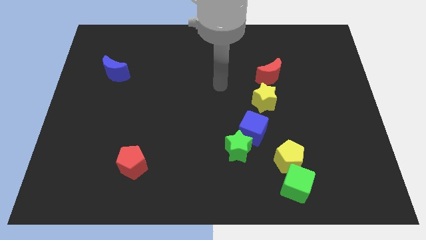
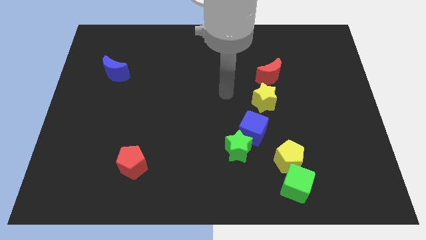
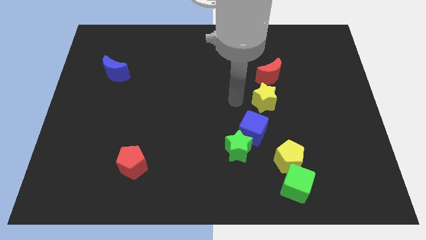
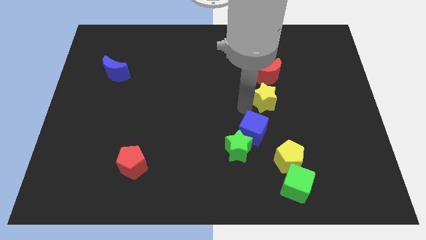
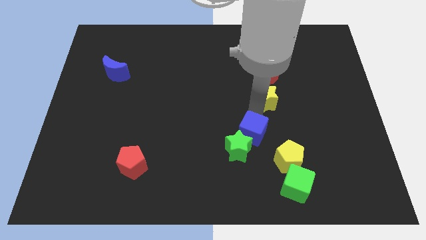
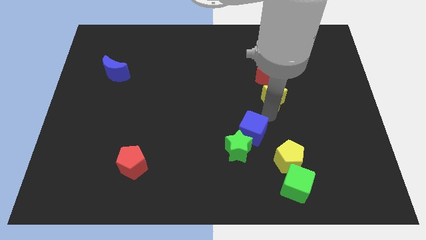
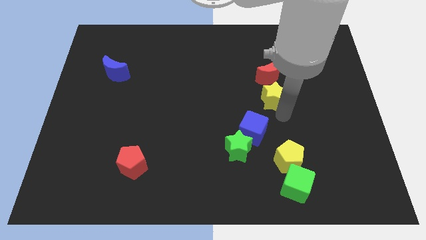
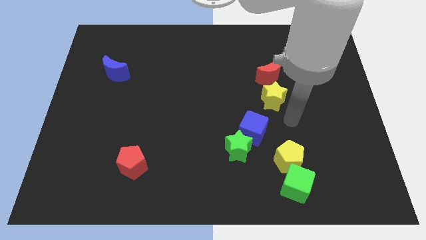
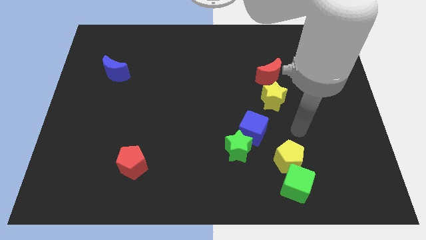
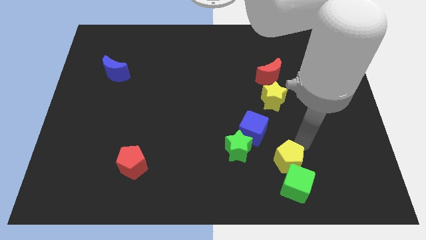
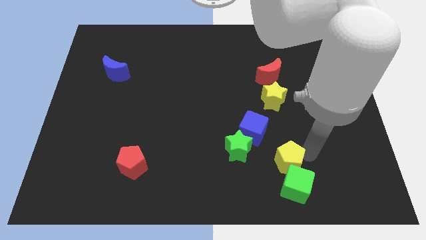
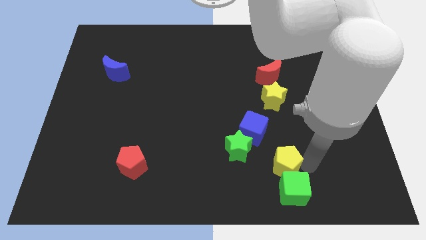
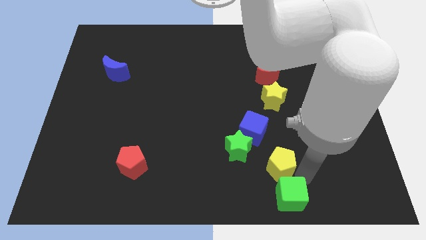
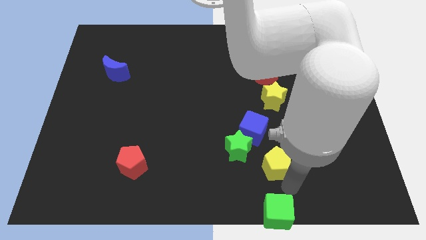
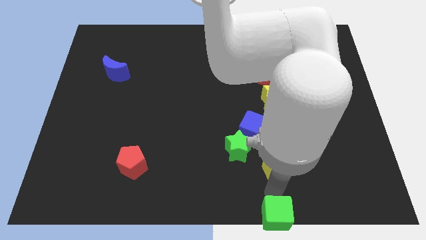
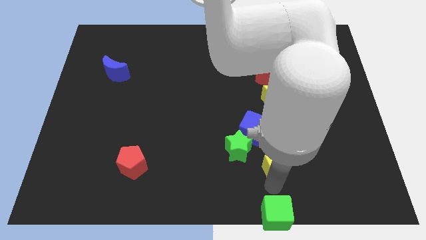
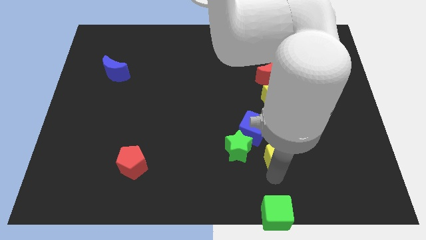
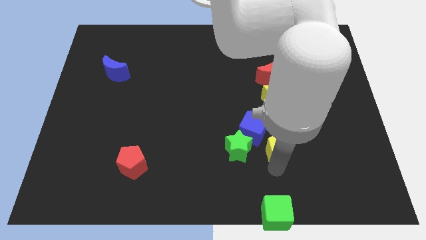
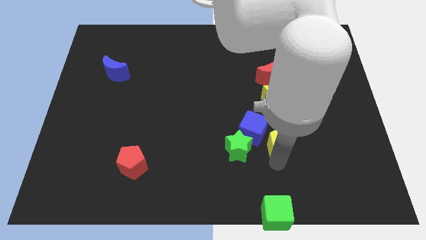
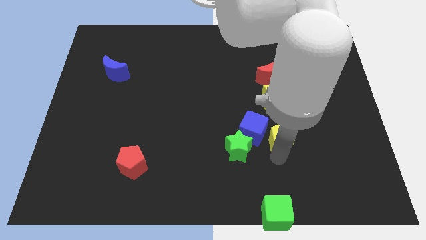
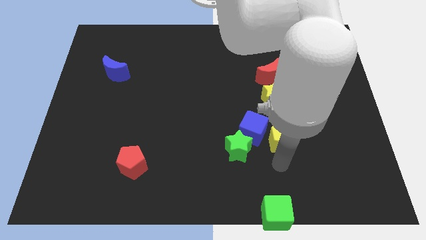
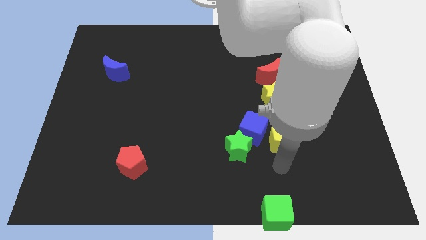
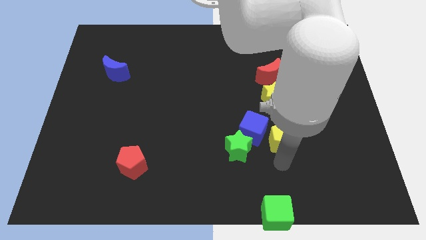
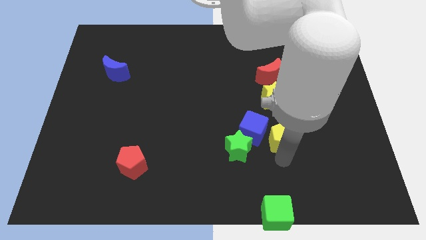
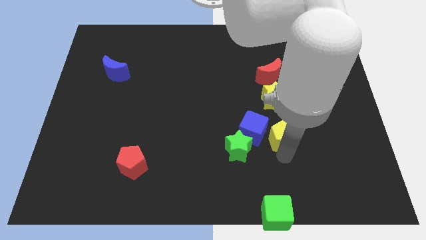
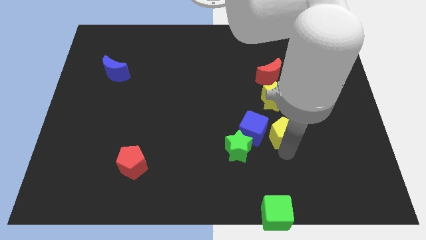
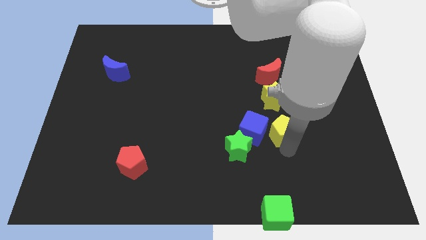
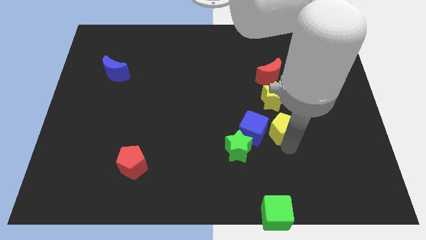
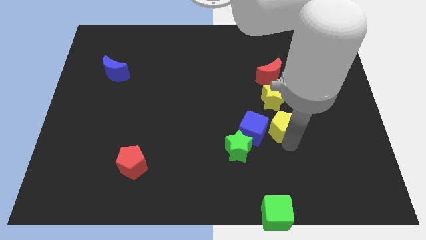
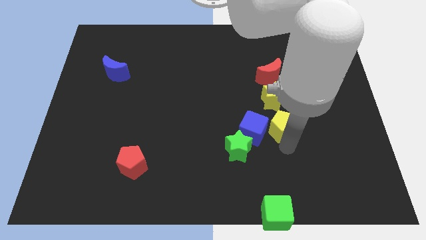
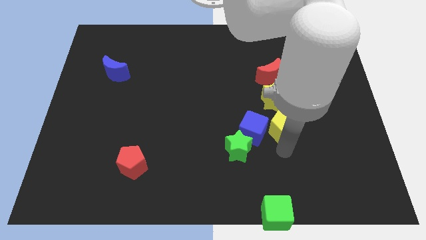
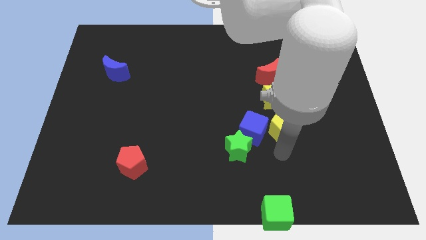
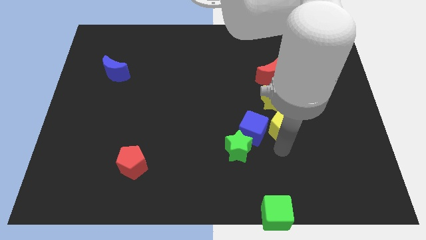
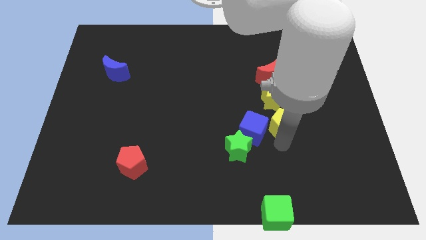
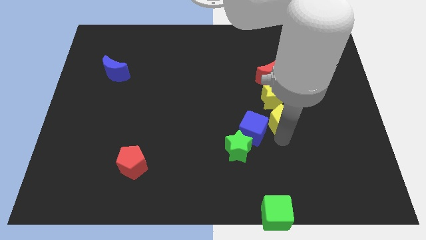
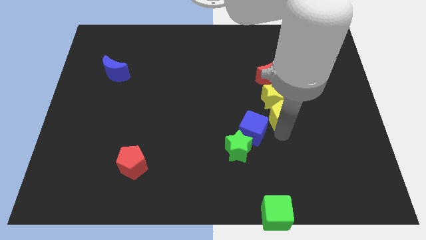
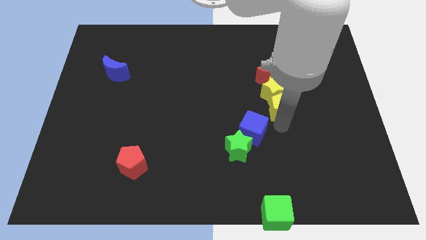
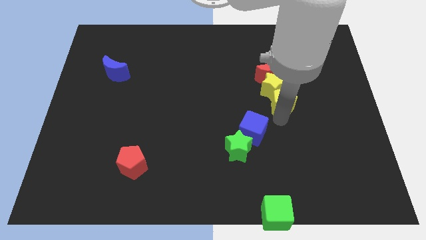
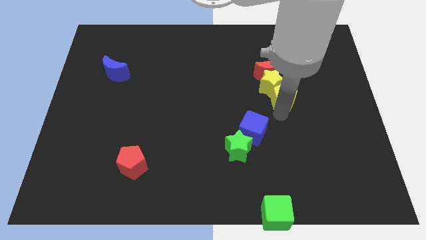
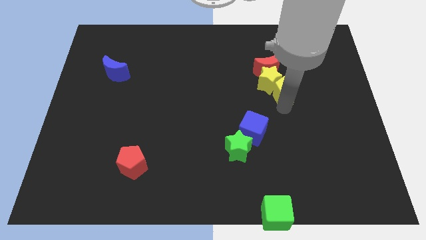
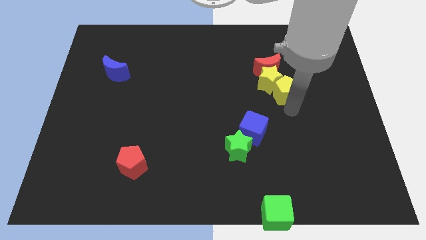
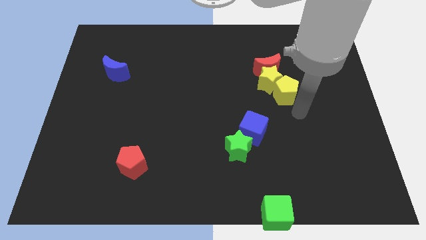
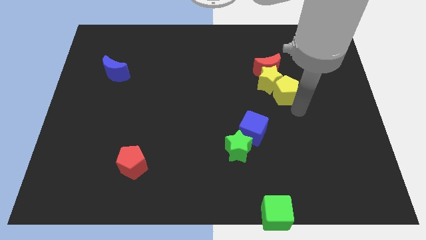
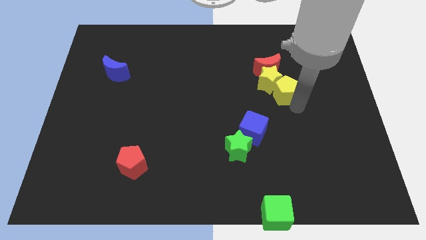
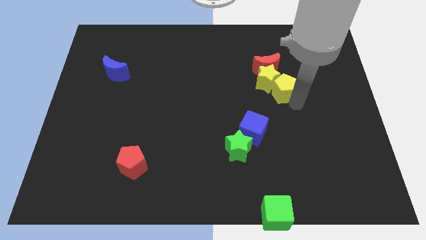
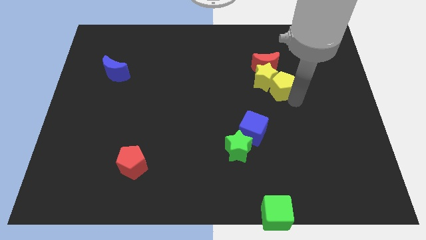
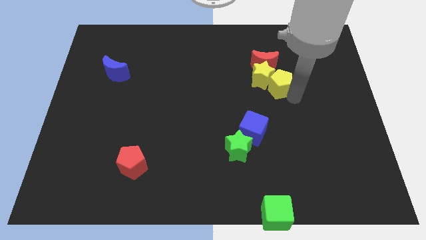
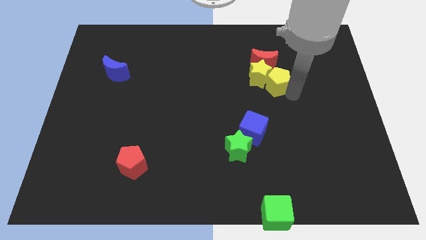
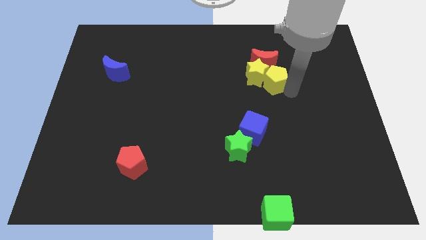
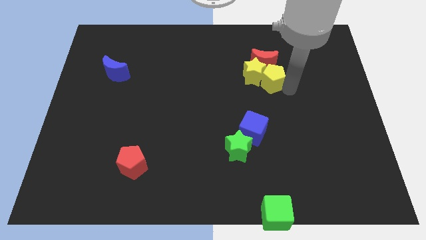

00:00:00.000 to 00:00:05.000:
push the yellow pentagon next to the red moon

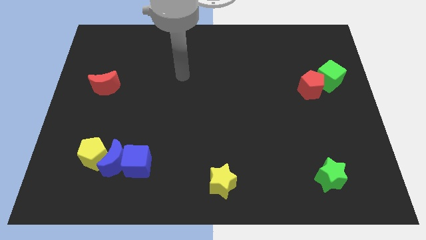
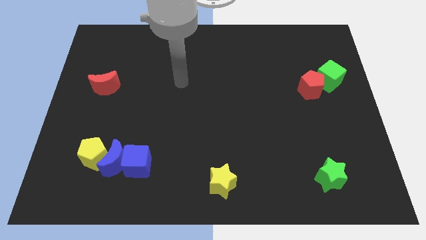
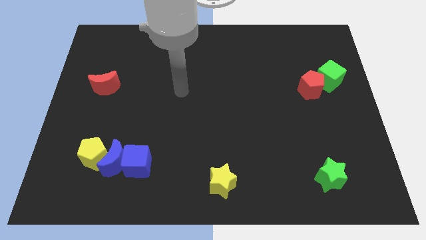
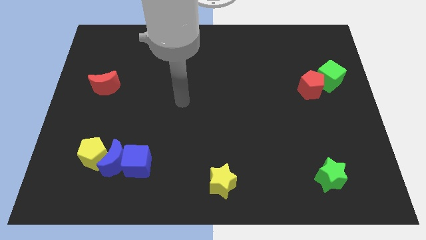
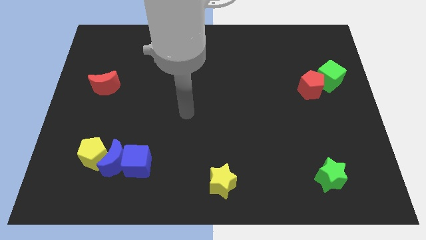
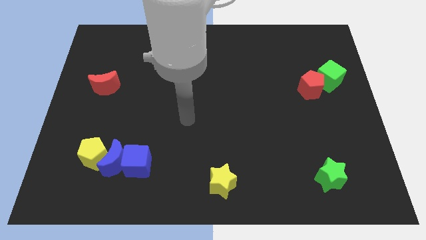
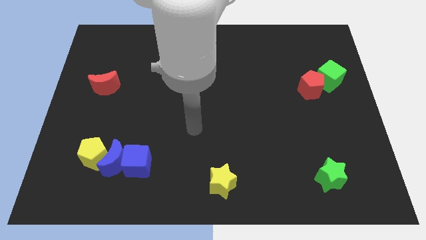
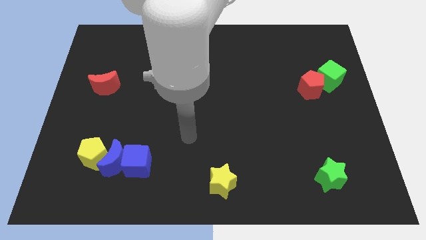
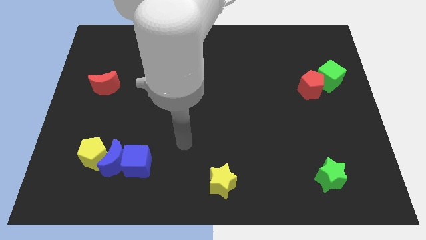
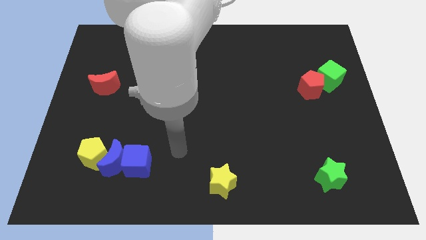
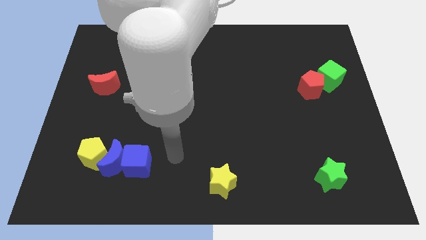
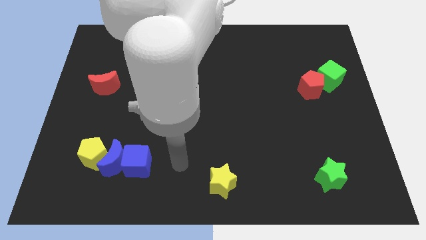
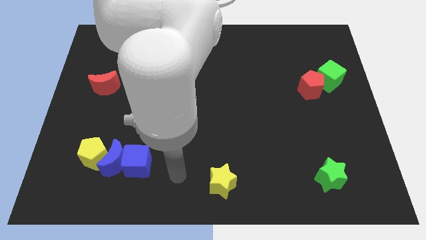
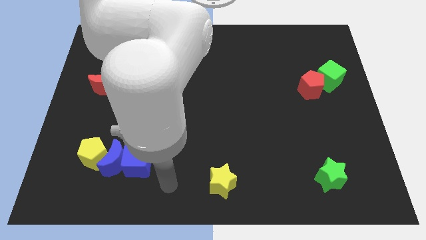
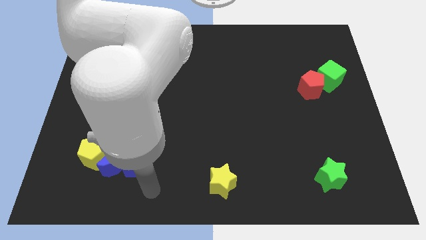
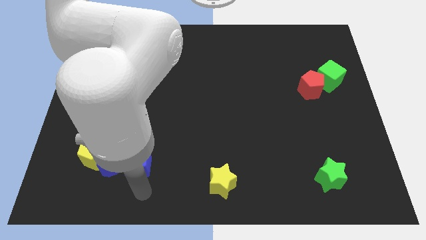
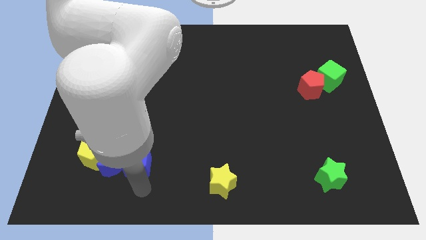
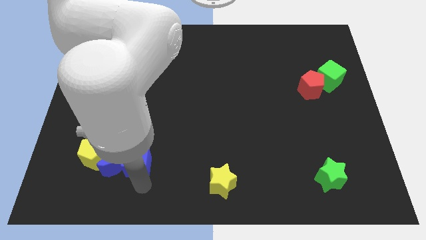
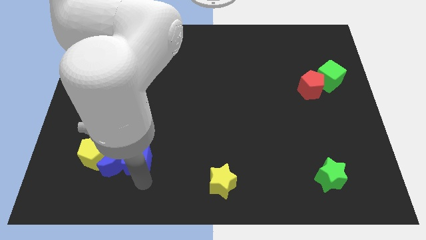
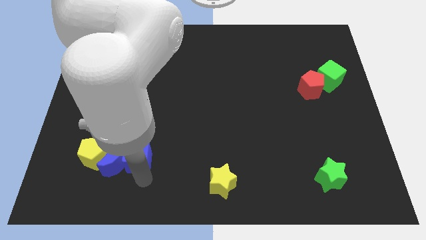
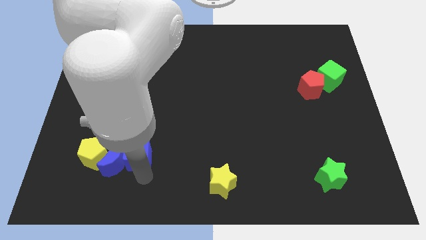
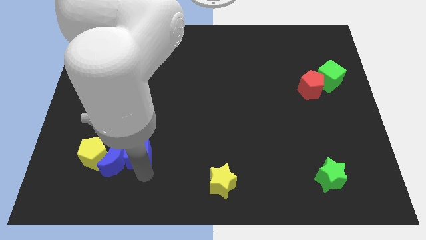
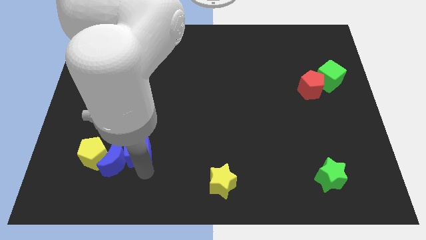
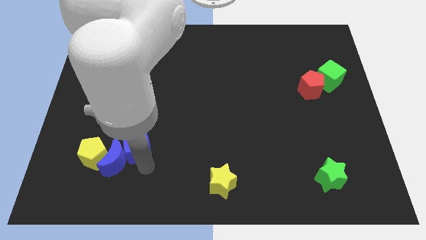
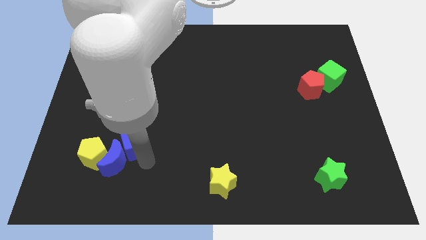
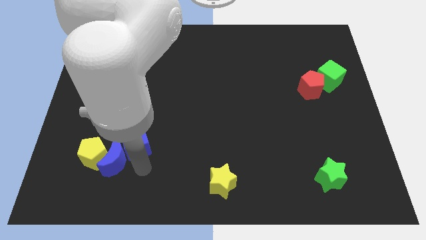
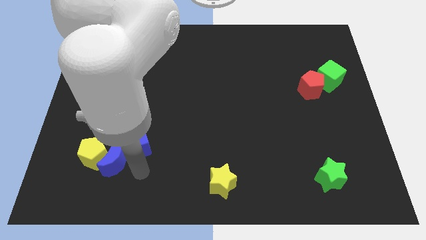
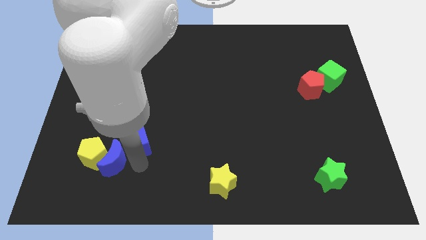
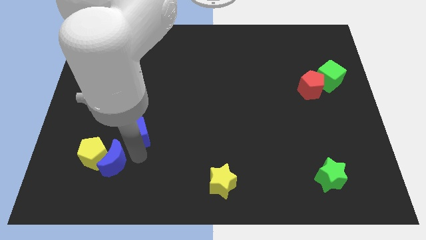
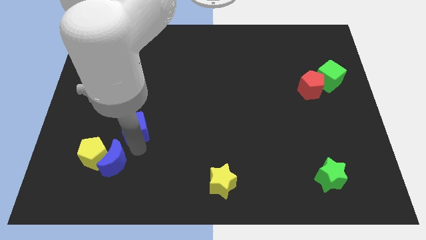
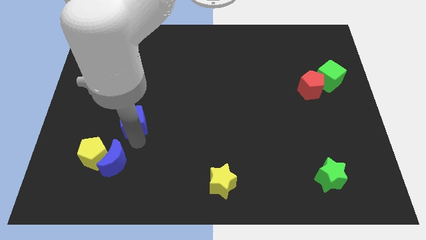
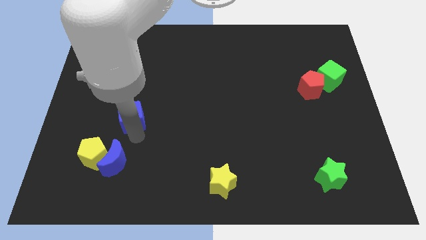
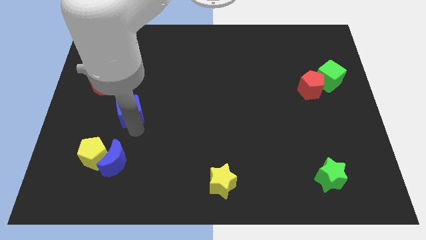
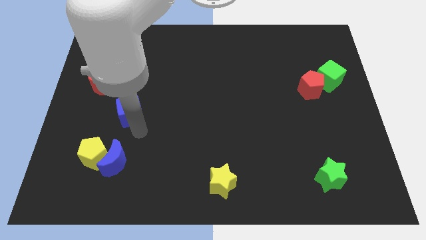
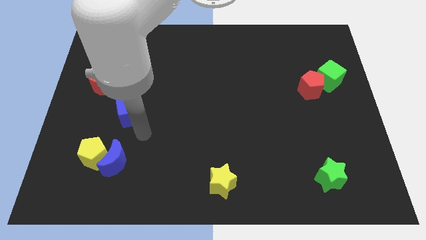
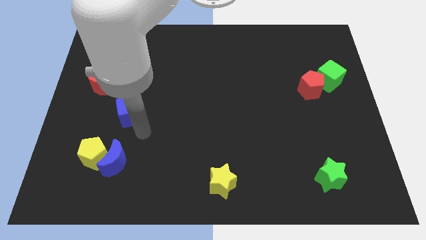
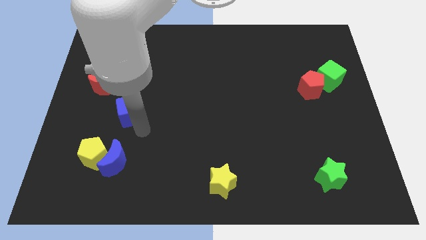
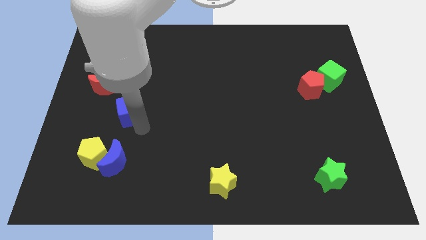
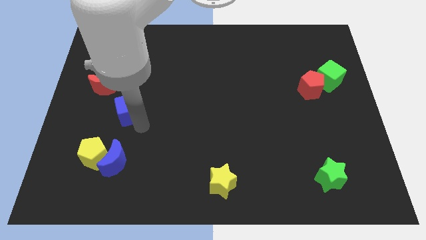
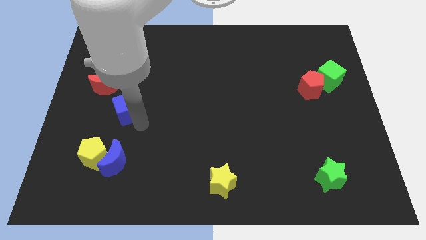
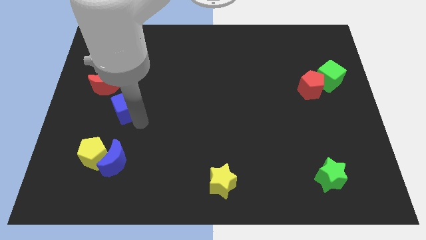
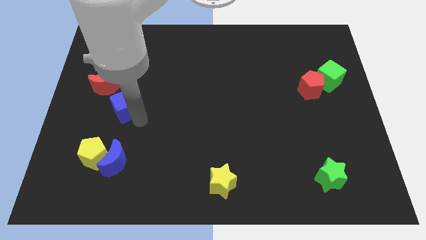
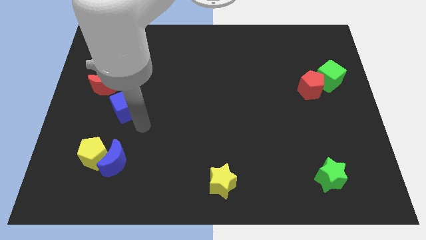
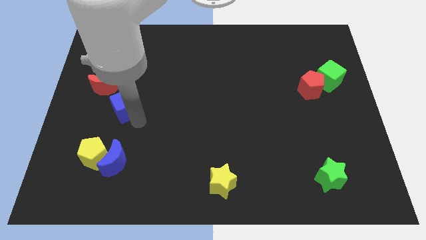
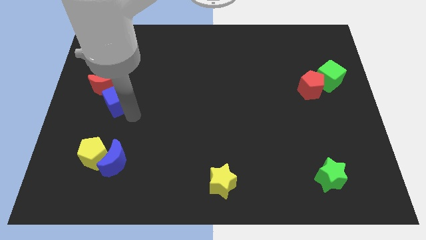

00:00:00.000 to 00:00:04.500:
put the blue cube next to the red moon
